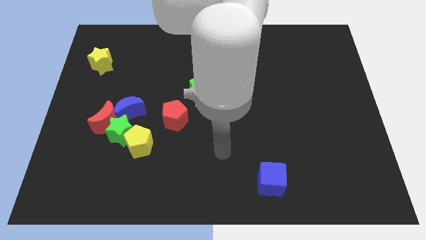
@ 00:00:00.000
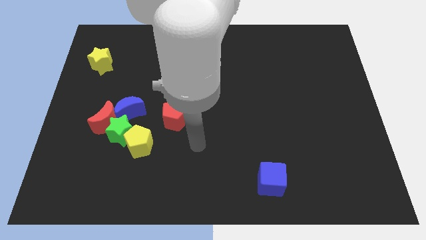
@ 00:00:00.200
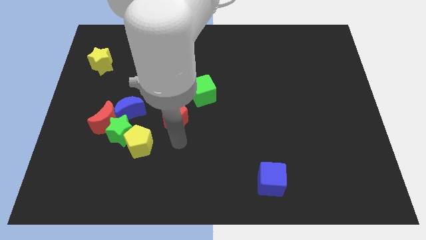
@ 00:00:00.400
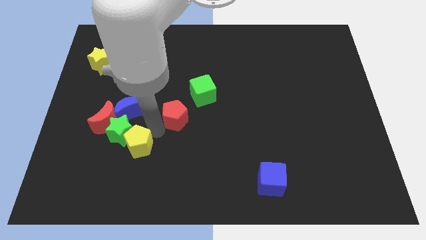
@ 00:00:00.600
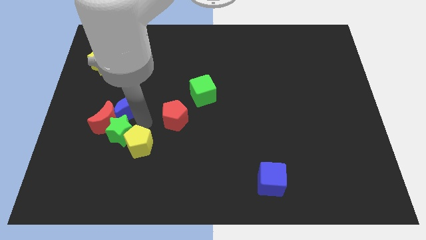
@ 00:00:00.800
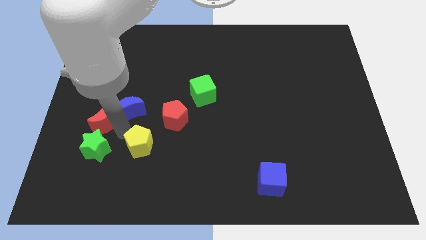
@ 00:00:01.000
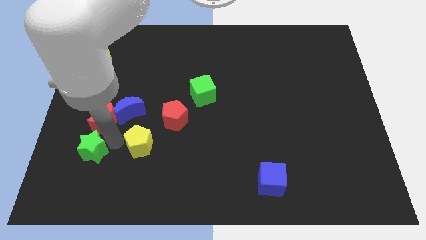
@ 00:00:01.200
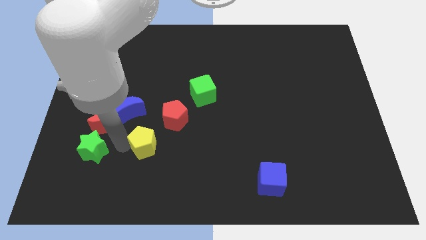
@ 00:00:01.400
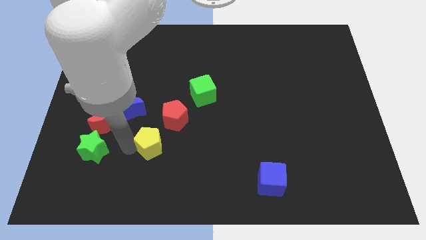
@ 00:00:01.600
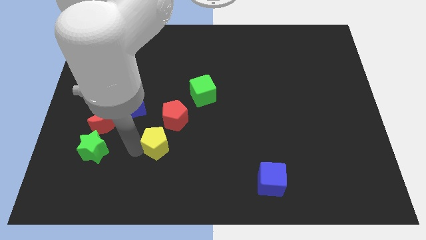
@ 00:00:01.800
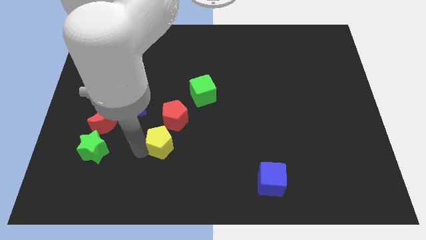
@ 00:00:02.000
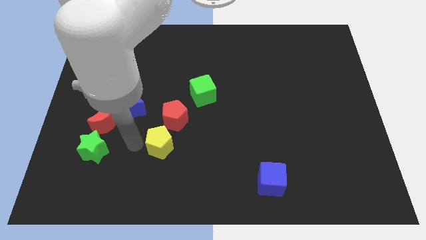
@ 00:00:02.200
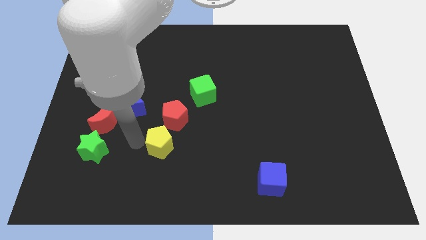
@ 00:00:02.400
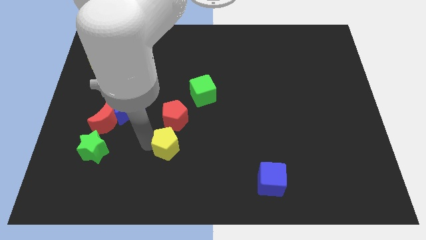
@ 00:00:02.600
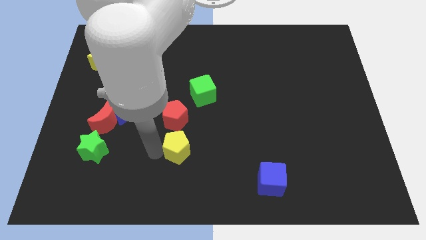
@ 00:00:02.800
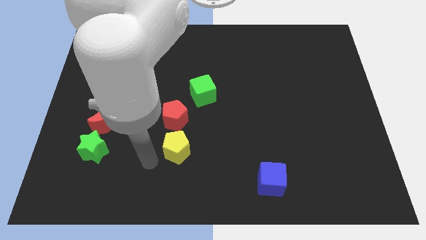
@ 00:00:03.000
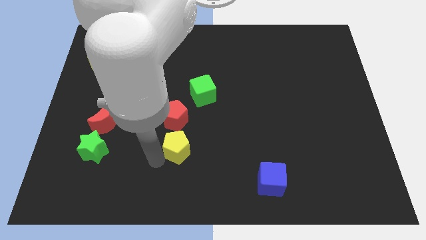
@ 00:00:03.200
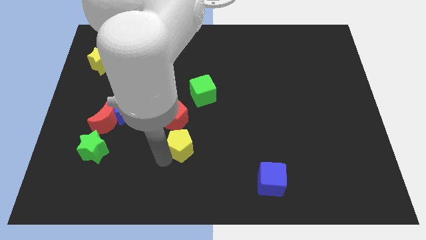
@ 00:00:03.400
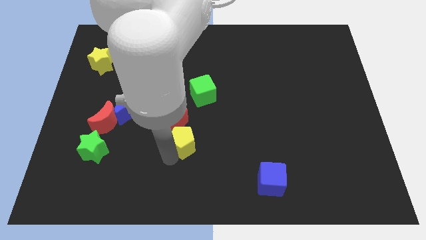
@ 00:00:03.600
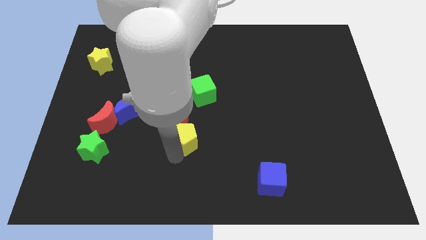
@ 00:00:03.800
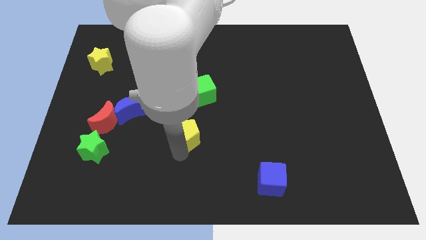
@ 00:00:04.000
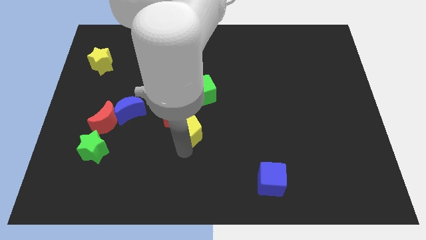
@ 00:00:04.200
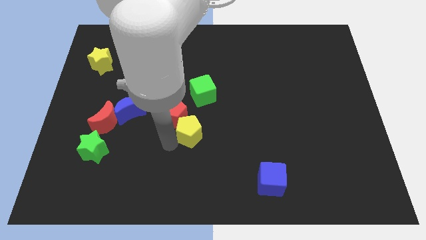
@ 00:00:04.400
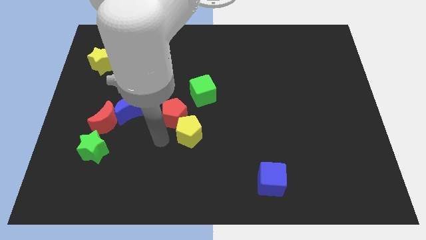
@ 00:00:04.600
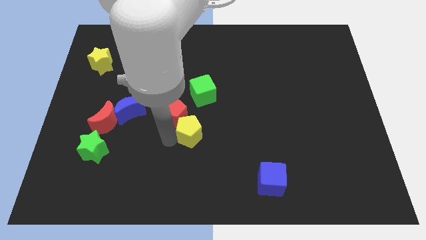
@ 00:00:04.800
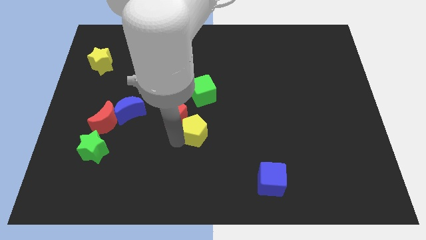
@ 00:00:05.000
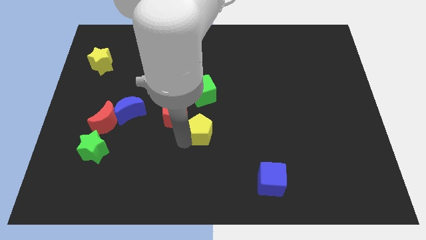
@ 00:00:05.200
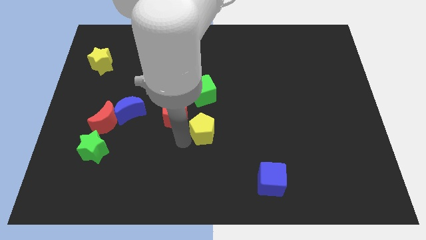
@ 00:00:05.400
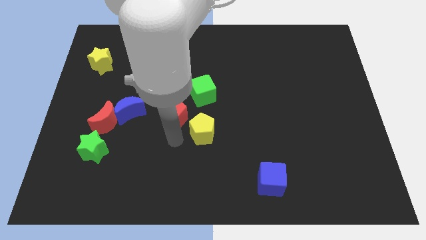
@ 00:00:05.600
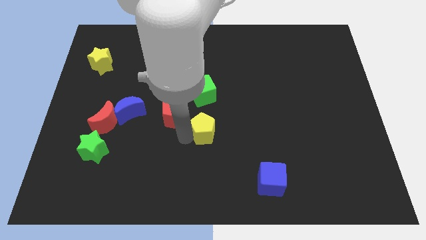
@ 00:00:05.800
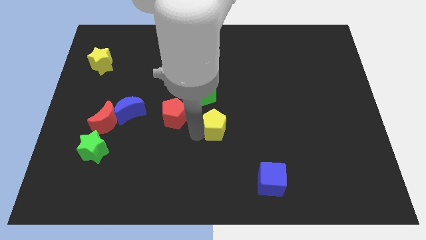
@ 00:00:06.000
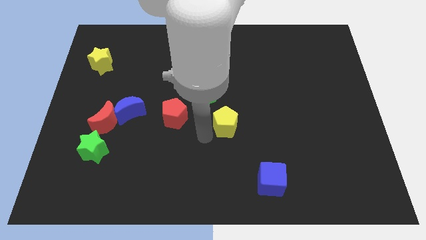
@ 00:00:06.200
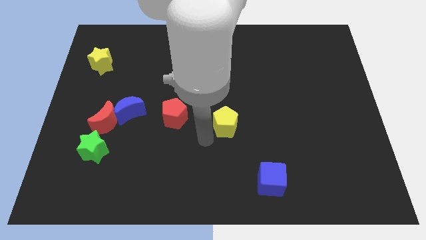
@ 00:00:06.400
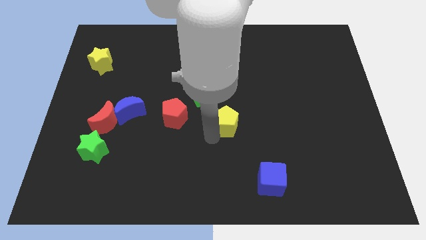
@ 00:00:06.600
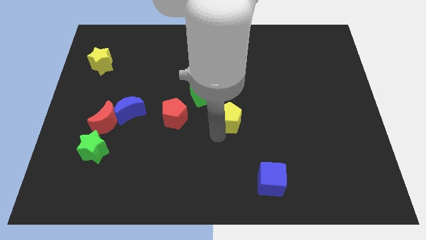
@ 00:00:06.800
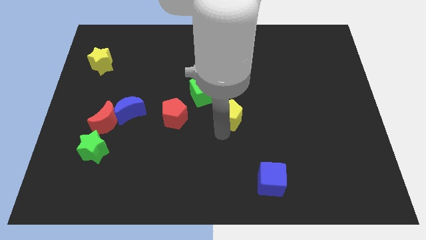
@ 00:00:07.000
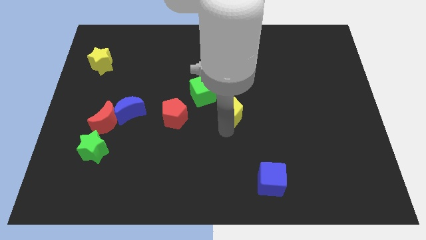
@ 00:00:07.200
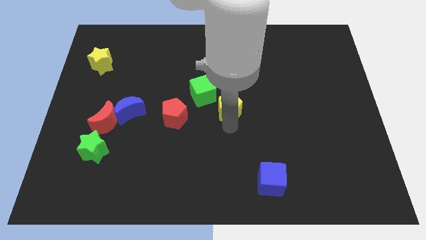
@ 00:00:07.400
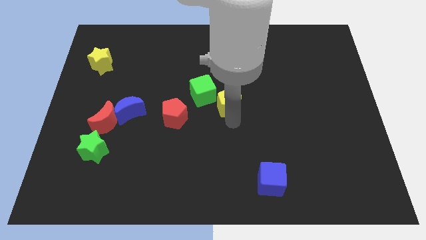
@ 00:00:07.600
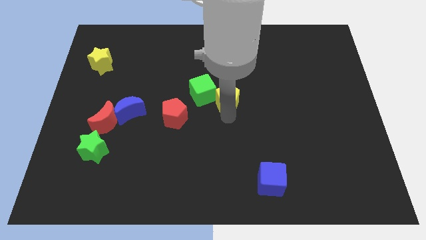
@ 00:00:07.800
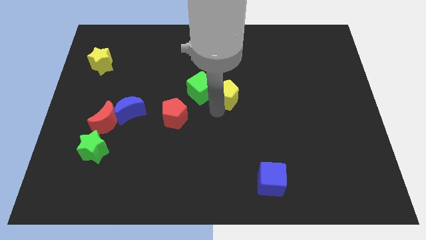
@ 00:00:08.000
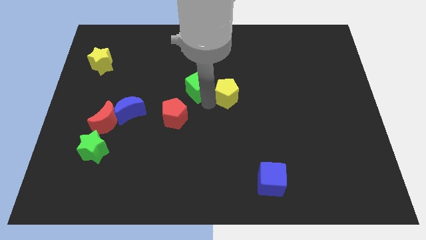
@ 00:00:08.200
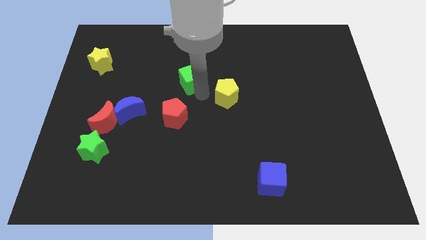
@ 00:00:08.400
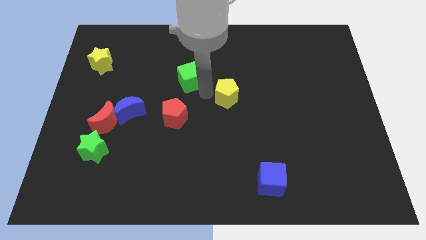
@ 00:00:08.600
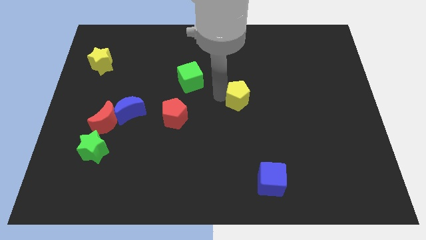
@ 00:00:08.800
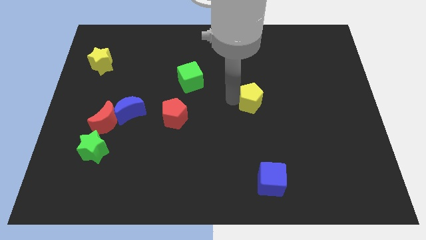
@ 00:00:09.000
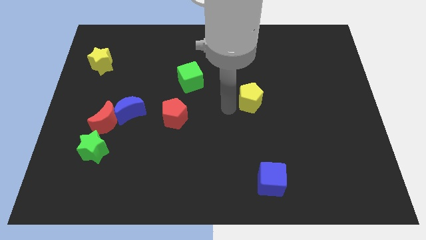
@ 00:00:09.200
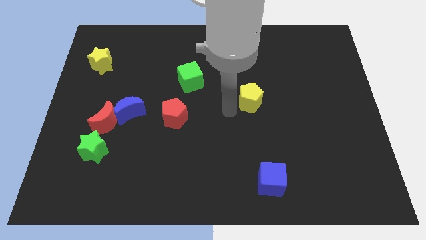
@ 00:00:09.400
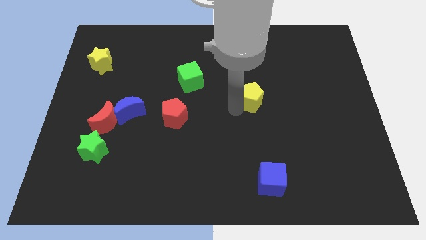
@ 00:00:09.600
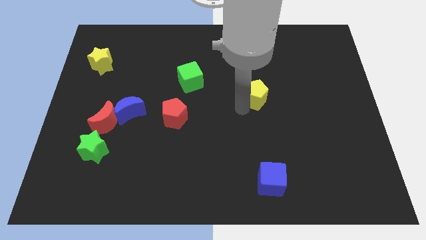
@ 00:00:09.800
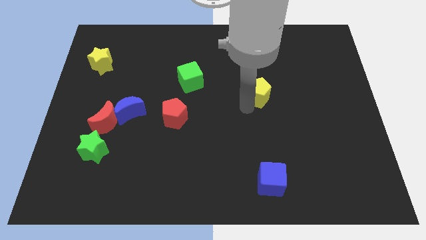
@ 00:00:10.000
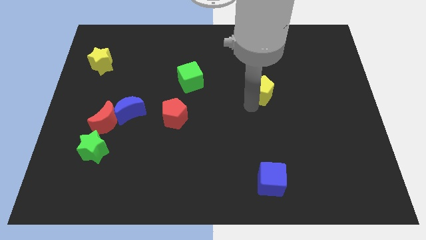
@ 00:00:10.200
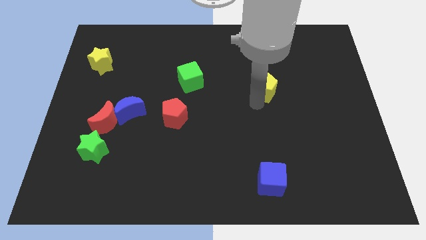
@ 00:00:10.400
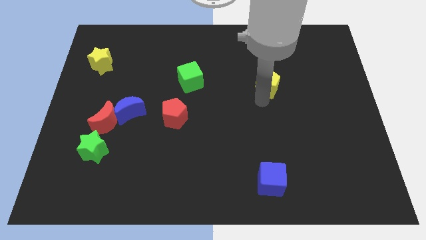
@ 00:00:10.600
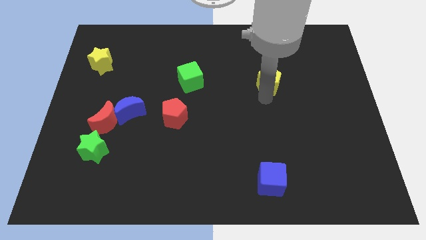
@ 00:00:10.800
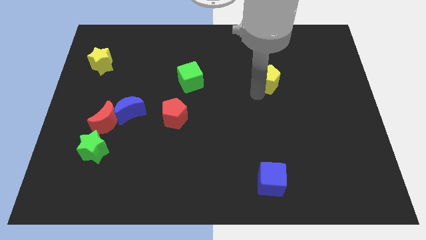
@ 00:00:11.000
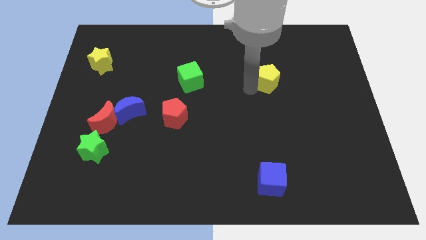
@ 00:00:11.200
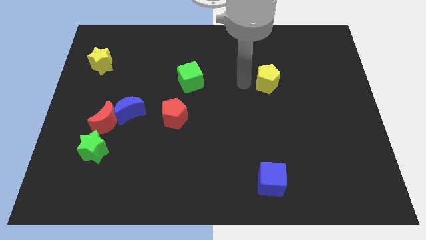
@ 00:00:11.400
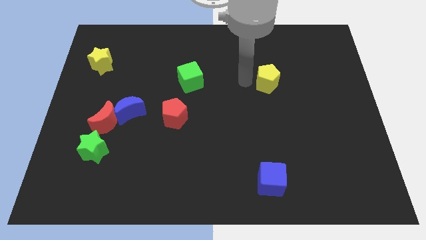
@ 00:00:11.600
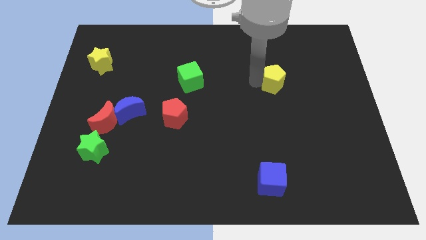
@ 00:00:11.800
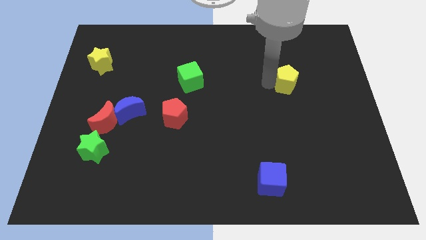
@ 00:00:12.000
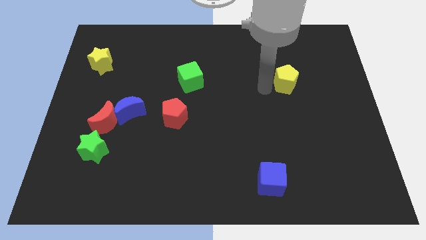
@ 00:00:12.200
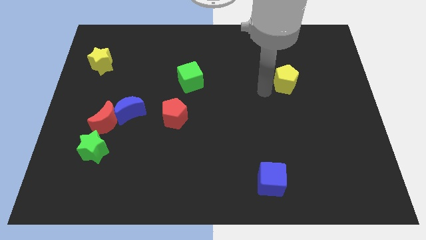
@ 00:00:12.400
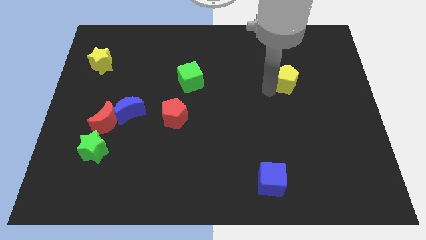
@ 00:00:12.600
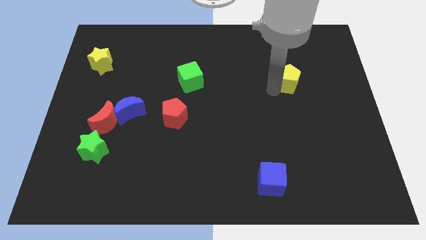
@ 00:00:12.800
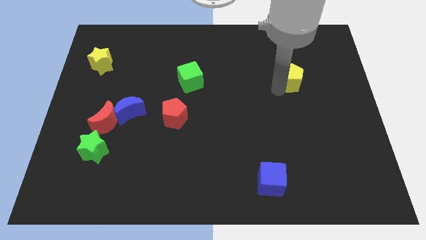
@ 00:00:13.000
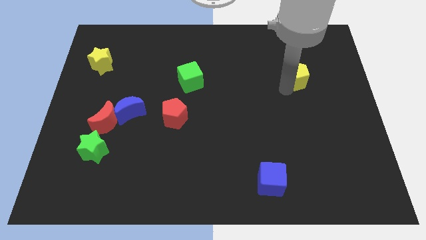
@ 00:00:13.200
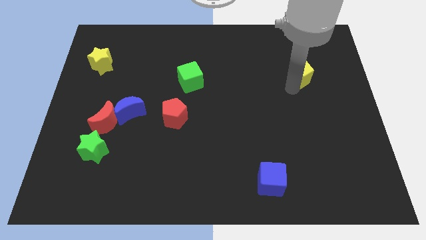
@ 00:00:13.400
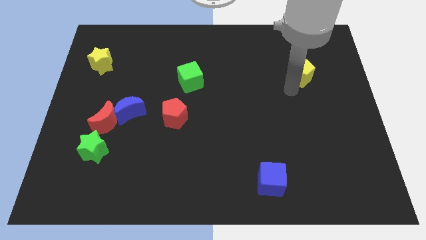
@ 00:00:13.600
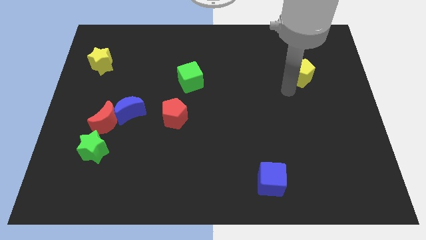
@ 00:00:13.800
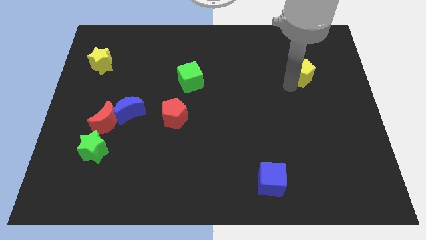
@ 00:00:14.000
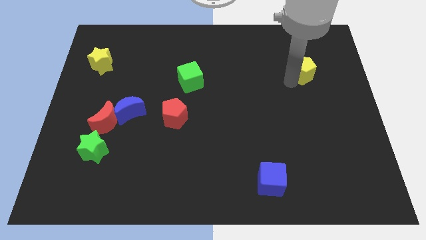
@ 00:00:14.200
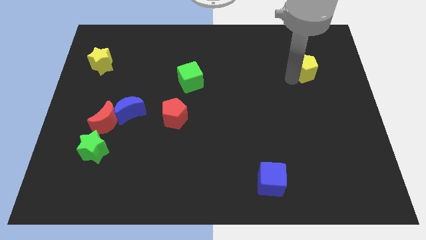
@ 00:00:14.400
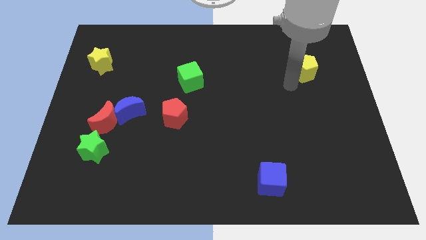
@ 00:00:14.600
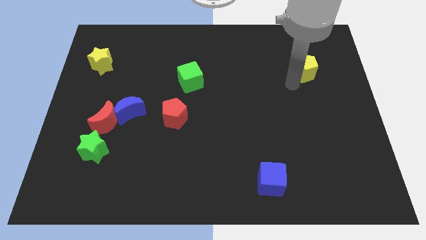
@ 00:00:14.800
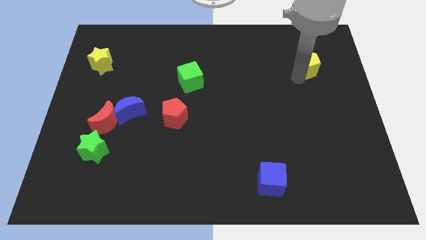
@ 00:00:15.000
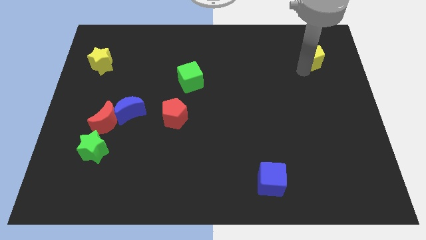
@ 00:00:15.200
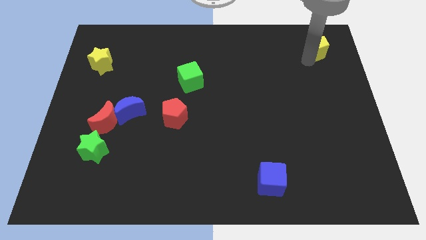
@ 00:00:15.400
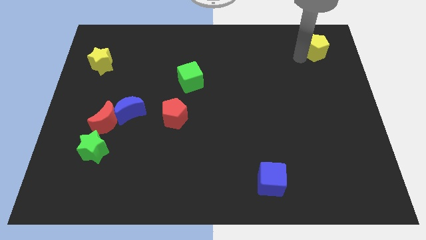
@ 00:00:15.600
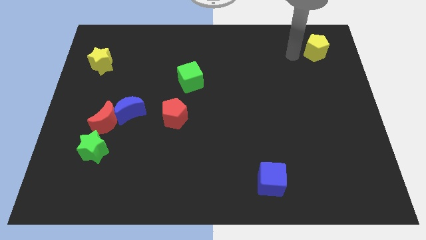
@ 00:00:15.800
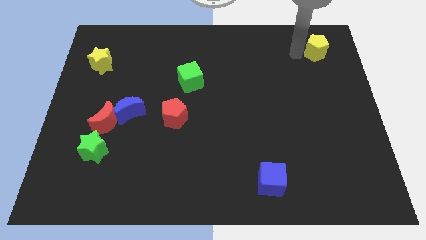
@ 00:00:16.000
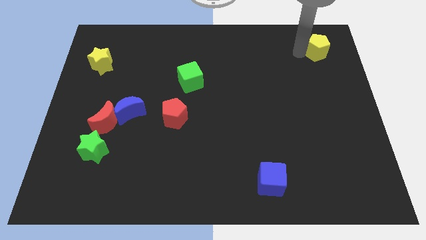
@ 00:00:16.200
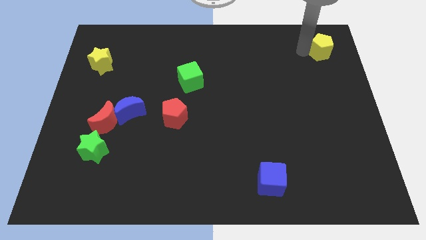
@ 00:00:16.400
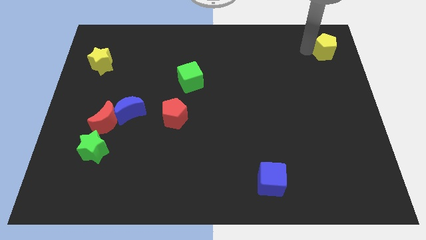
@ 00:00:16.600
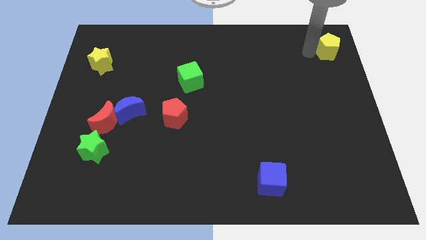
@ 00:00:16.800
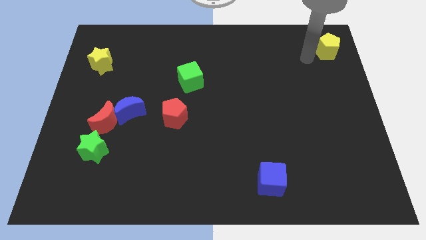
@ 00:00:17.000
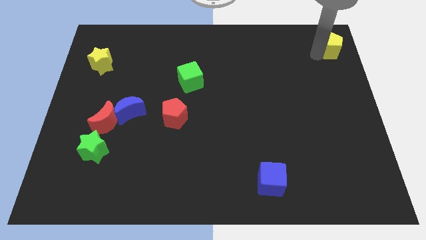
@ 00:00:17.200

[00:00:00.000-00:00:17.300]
put the yellow pentagon to the top right
